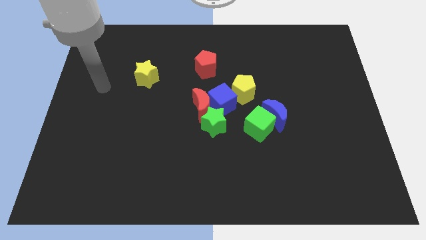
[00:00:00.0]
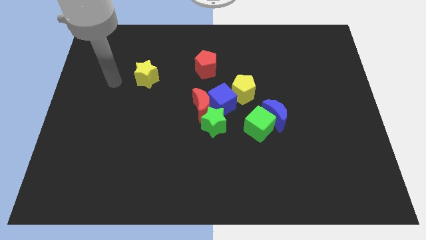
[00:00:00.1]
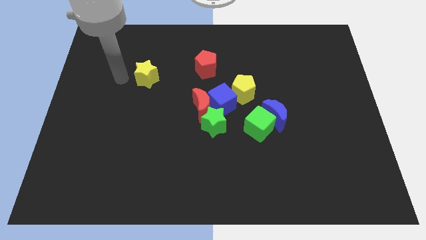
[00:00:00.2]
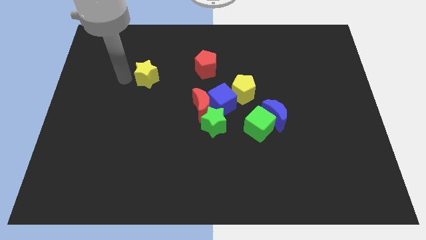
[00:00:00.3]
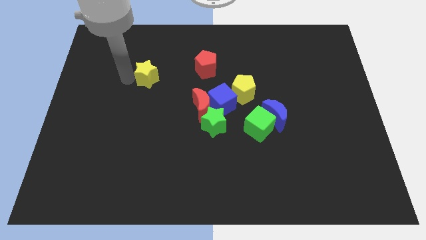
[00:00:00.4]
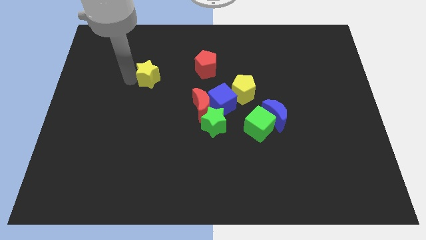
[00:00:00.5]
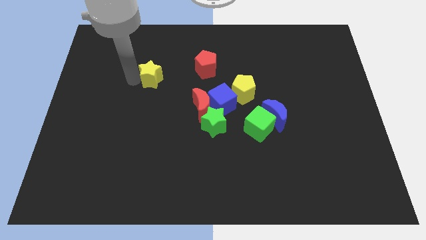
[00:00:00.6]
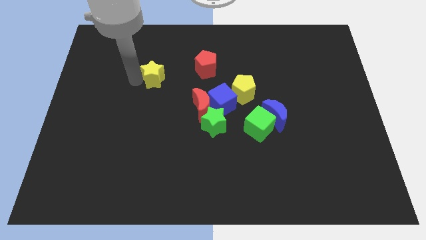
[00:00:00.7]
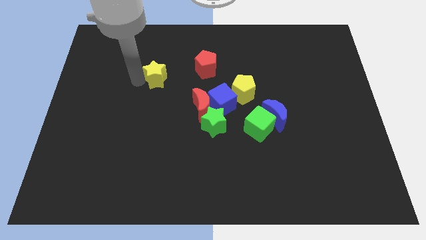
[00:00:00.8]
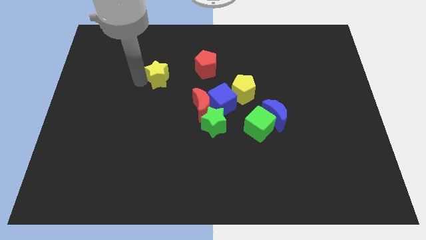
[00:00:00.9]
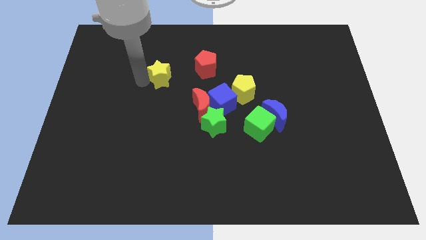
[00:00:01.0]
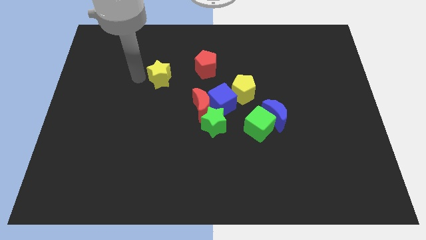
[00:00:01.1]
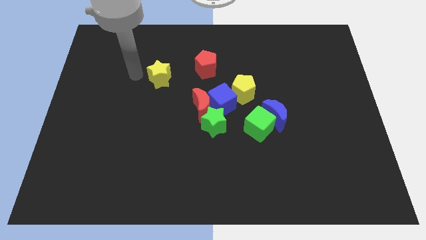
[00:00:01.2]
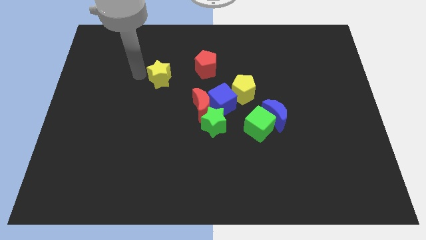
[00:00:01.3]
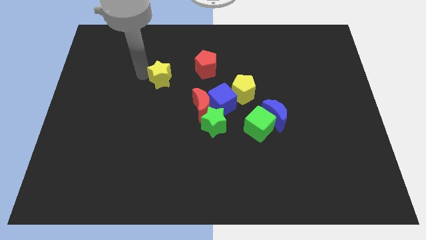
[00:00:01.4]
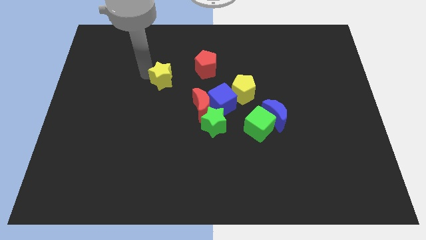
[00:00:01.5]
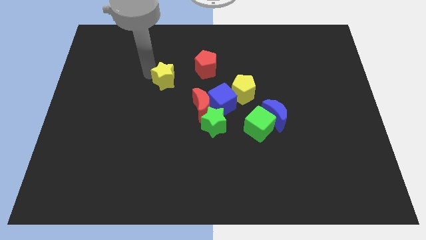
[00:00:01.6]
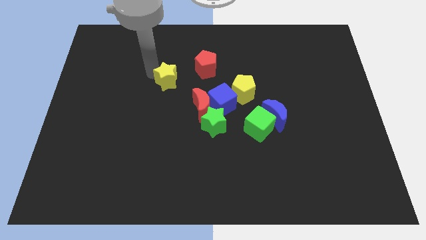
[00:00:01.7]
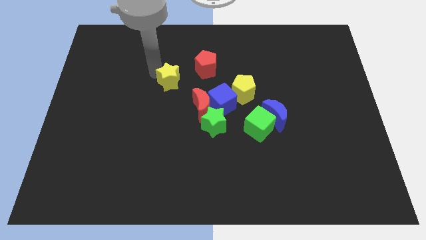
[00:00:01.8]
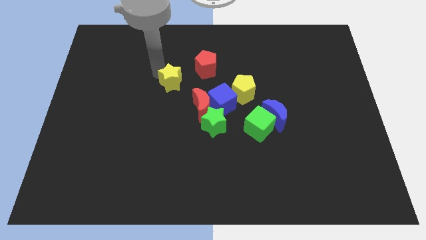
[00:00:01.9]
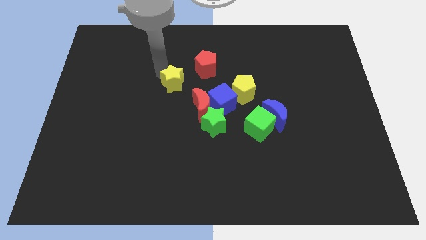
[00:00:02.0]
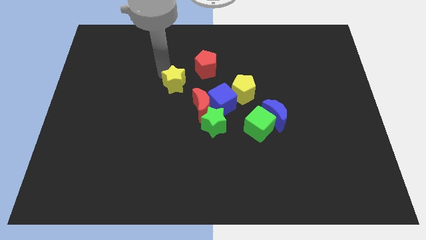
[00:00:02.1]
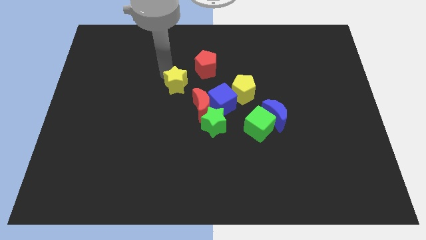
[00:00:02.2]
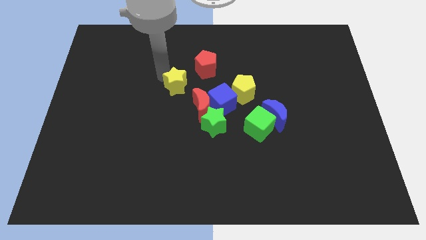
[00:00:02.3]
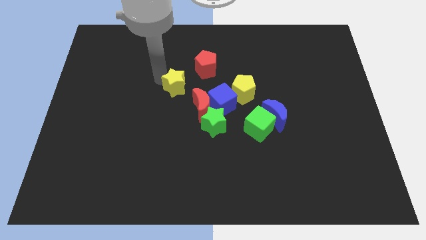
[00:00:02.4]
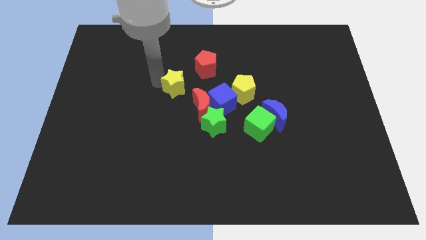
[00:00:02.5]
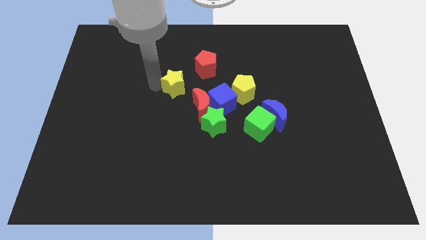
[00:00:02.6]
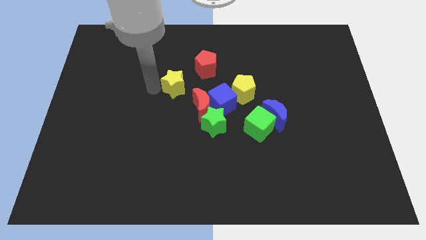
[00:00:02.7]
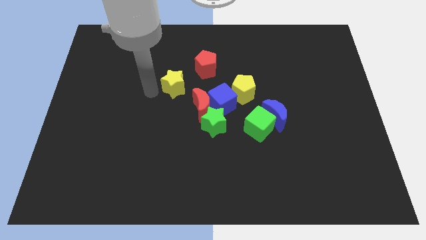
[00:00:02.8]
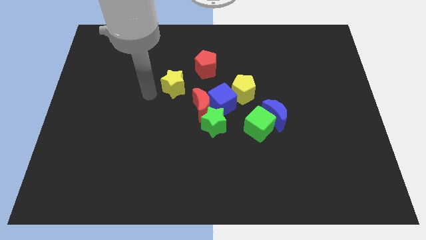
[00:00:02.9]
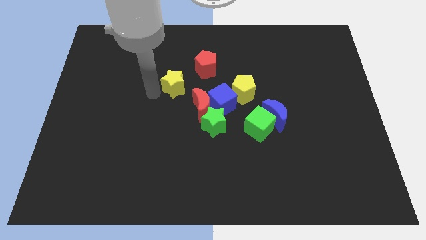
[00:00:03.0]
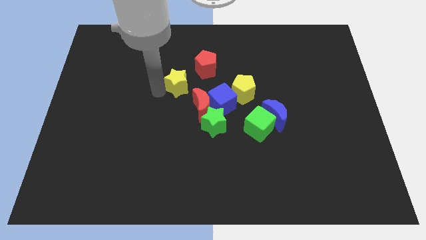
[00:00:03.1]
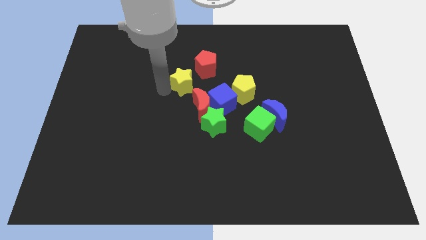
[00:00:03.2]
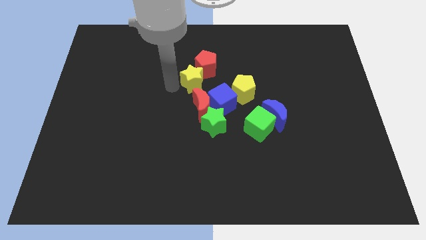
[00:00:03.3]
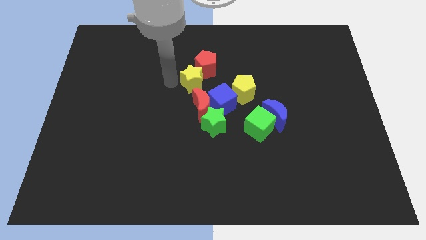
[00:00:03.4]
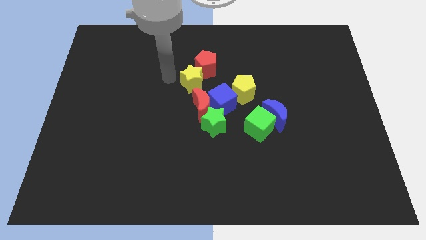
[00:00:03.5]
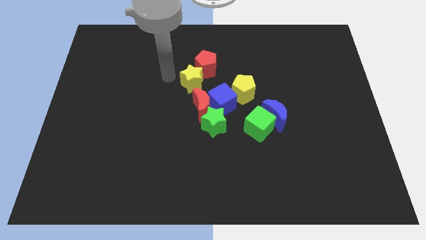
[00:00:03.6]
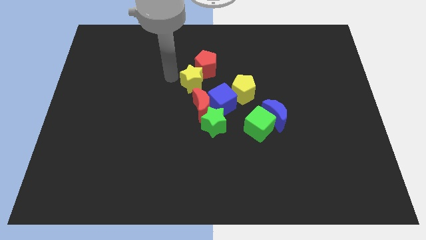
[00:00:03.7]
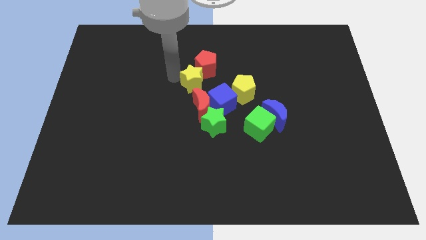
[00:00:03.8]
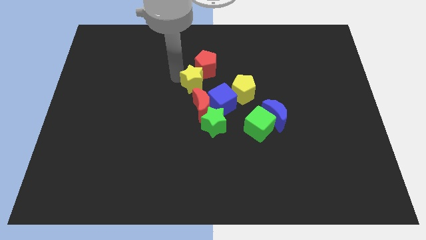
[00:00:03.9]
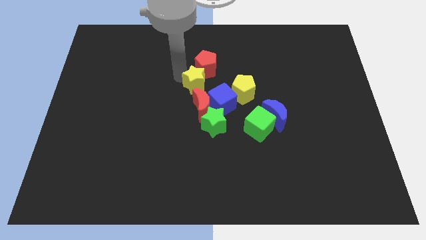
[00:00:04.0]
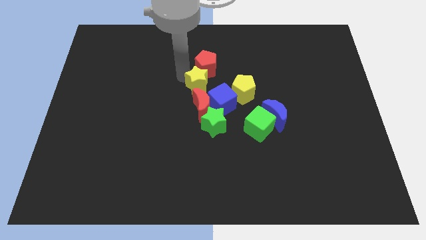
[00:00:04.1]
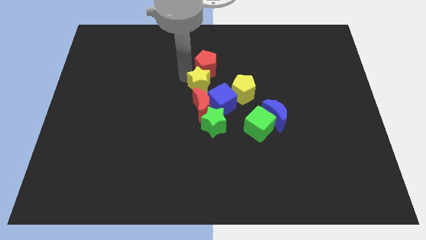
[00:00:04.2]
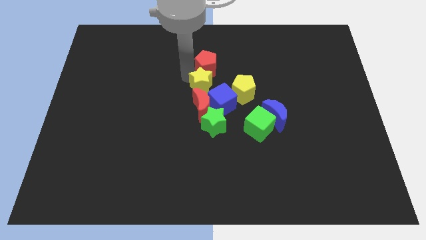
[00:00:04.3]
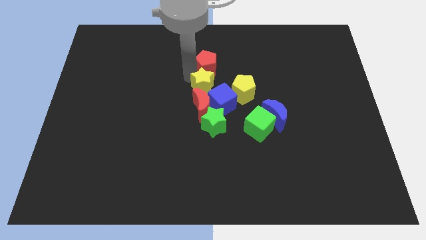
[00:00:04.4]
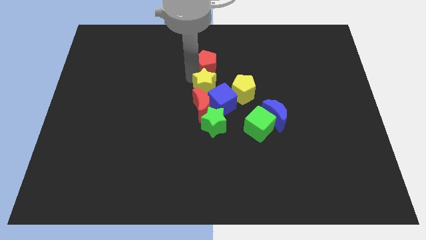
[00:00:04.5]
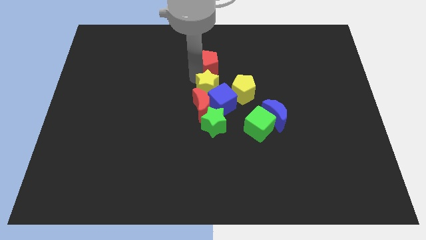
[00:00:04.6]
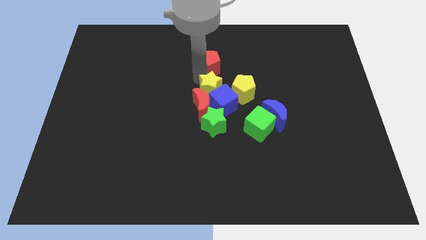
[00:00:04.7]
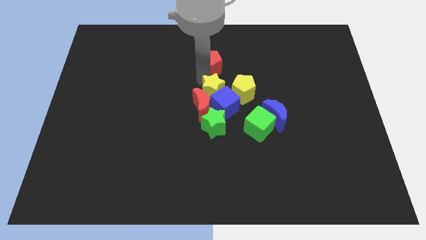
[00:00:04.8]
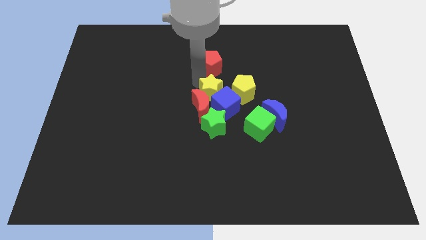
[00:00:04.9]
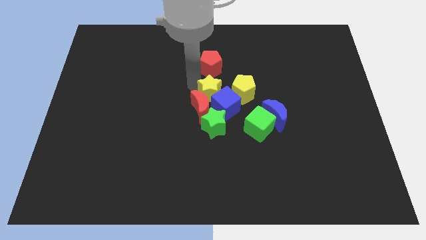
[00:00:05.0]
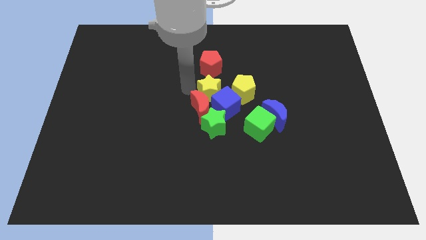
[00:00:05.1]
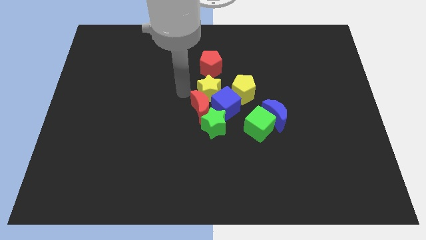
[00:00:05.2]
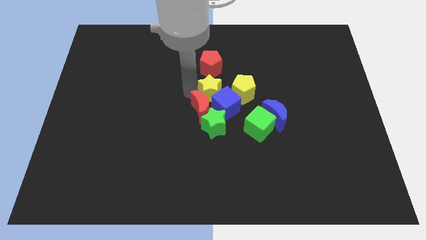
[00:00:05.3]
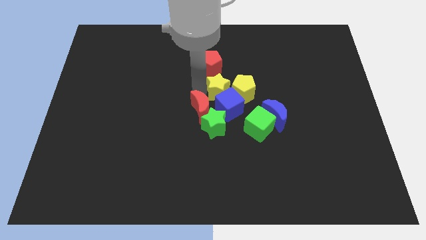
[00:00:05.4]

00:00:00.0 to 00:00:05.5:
slide the yellow star towards the yellow pentagon
